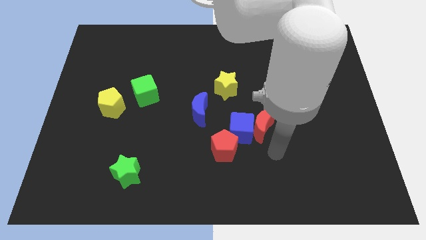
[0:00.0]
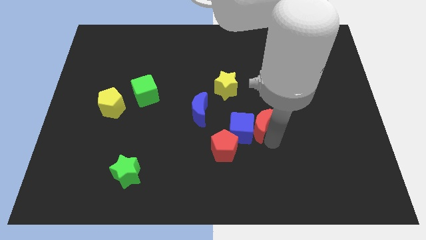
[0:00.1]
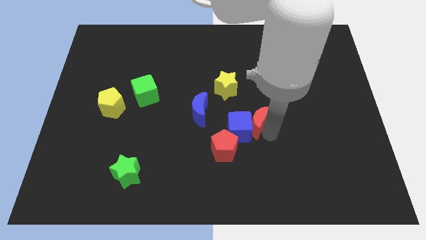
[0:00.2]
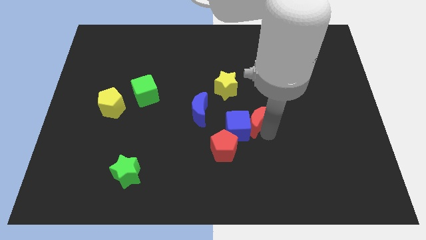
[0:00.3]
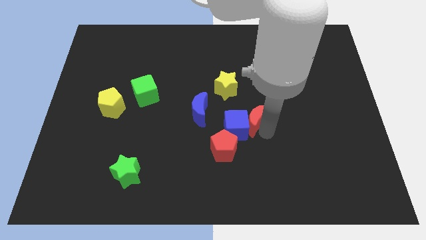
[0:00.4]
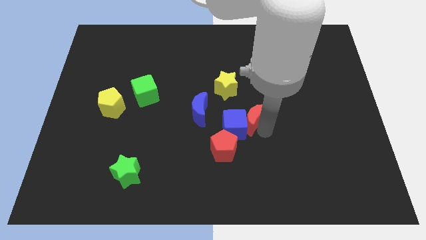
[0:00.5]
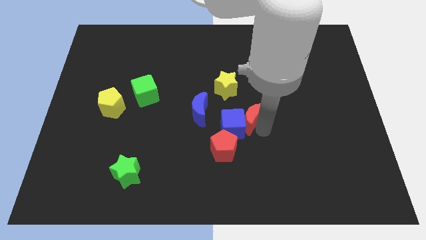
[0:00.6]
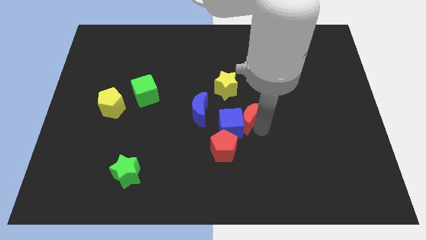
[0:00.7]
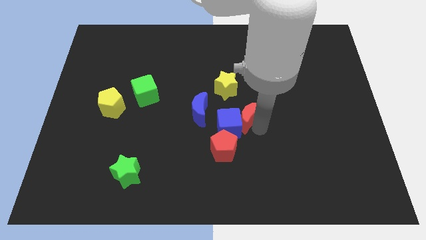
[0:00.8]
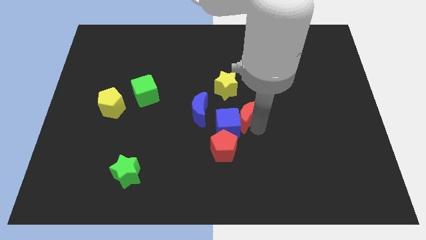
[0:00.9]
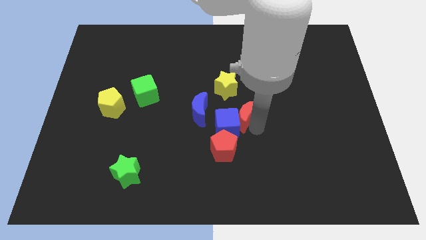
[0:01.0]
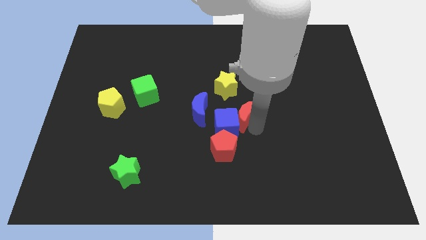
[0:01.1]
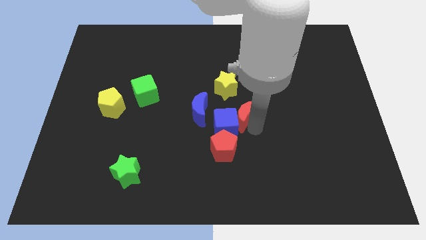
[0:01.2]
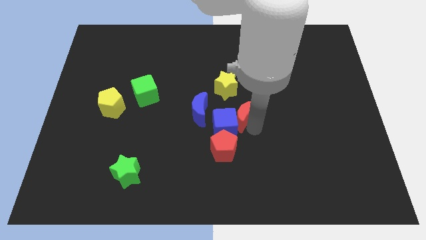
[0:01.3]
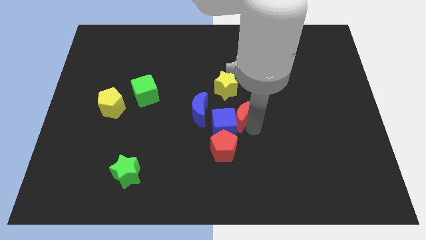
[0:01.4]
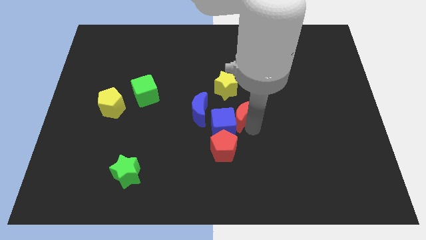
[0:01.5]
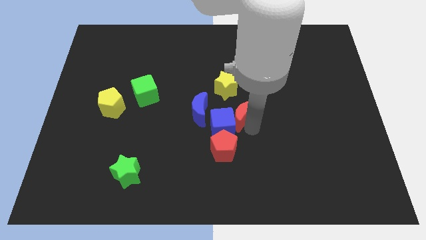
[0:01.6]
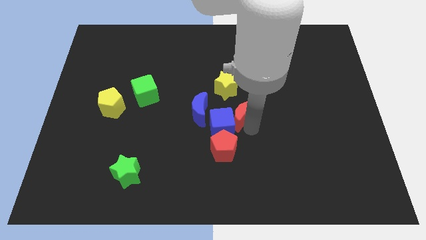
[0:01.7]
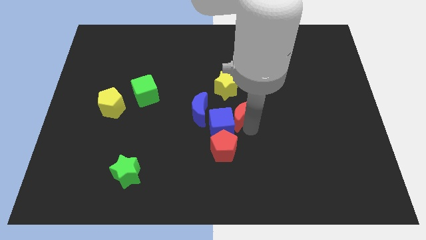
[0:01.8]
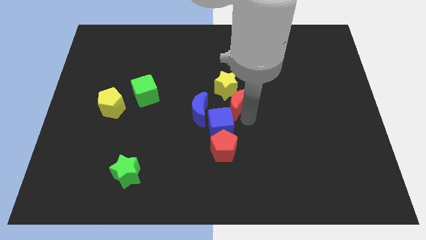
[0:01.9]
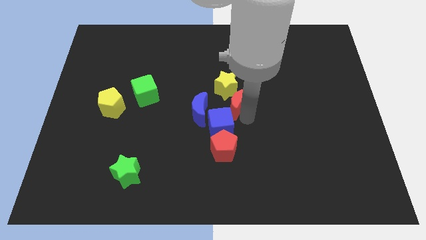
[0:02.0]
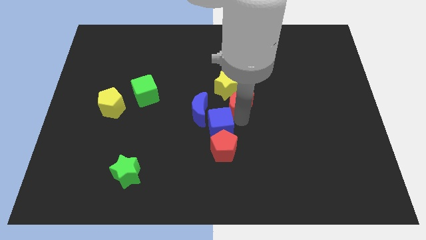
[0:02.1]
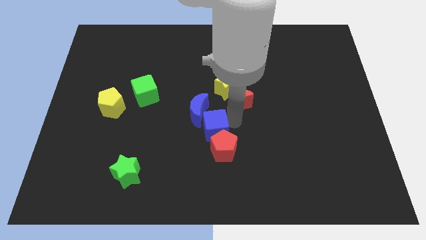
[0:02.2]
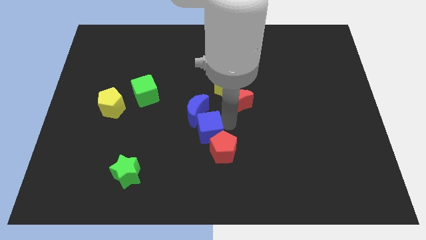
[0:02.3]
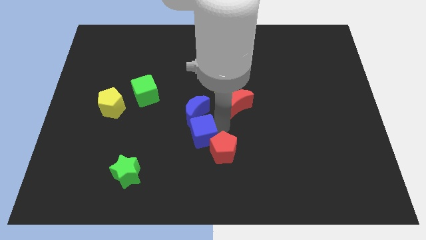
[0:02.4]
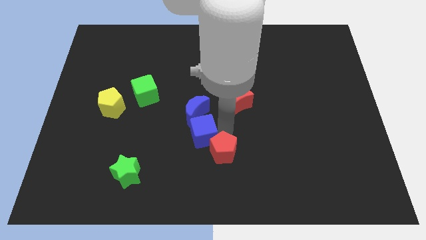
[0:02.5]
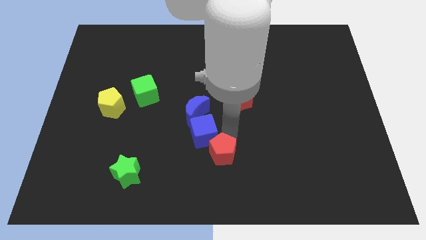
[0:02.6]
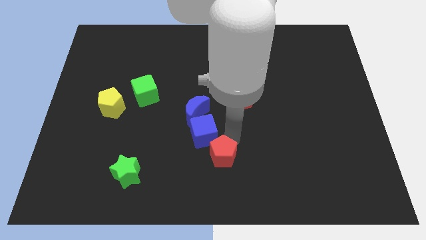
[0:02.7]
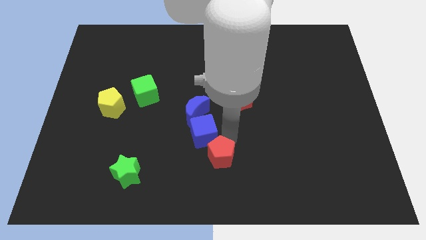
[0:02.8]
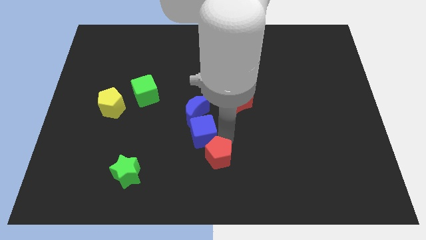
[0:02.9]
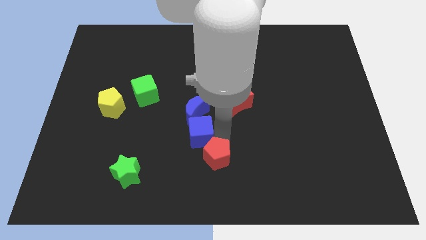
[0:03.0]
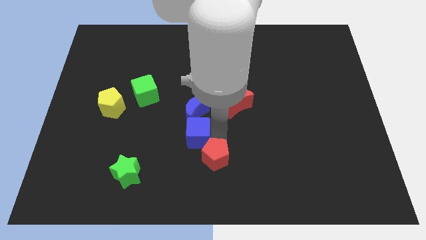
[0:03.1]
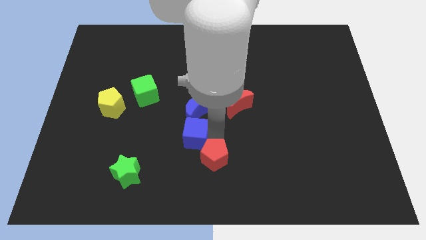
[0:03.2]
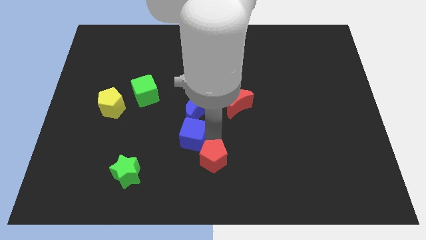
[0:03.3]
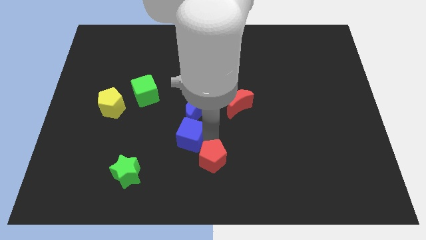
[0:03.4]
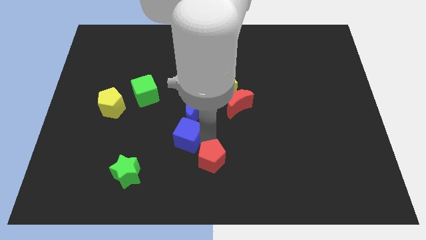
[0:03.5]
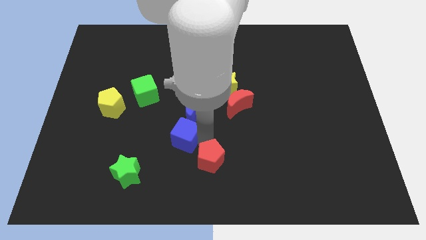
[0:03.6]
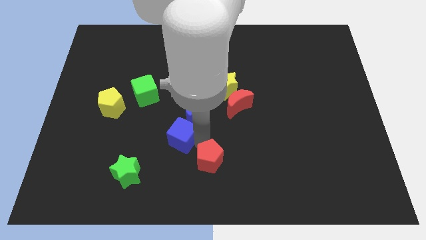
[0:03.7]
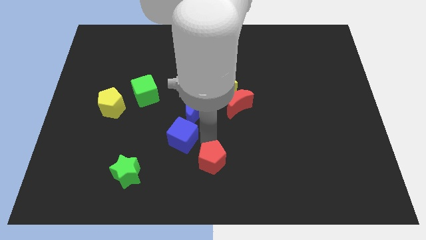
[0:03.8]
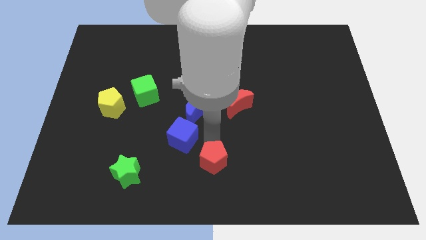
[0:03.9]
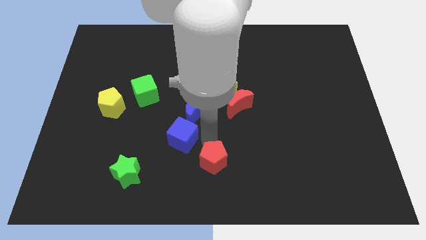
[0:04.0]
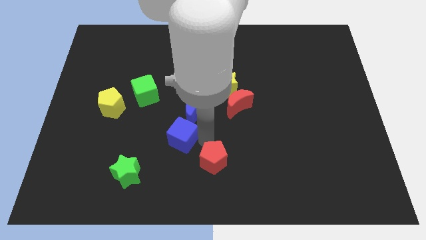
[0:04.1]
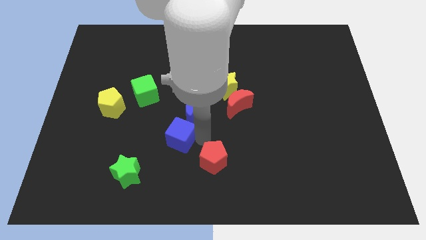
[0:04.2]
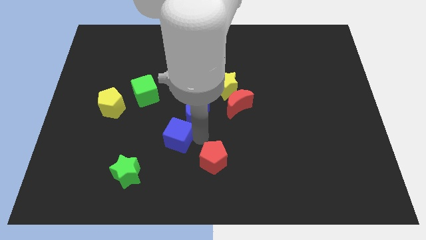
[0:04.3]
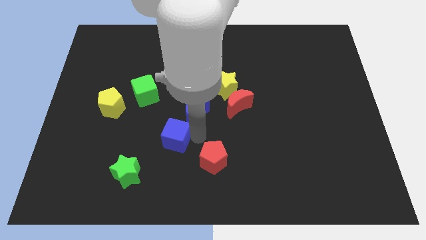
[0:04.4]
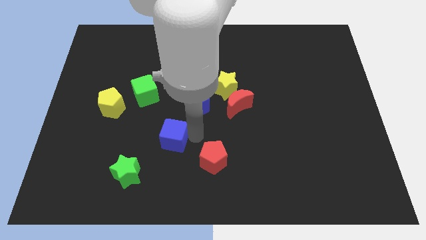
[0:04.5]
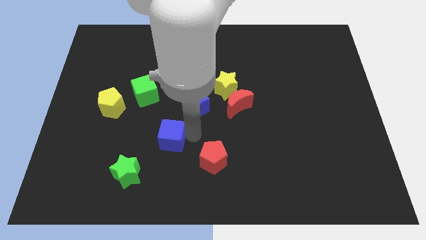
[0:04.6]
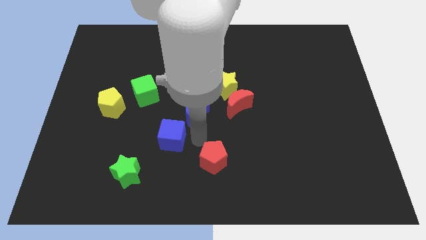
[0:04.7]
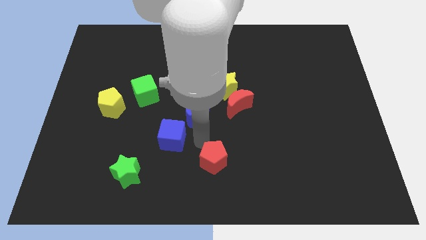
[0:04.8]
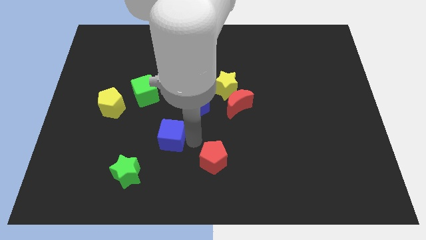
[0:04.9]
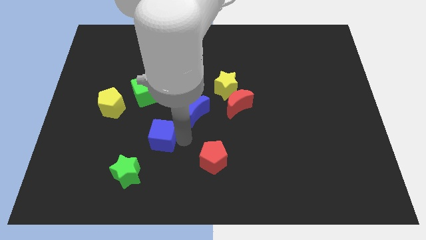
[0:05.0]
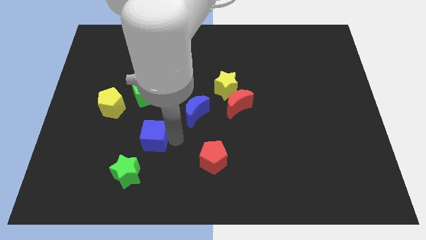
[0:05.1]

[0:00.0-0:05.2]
put the blue cube to the top side of the green star

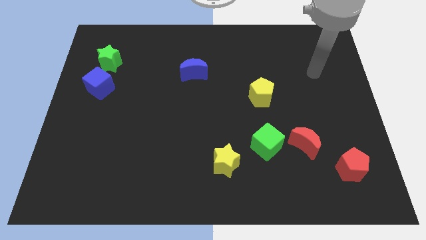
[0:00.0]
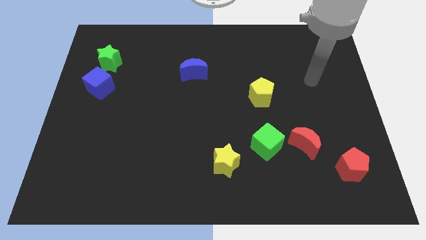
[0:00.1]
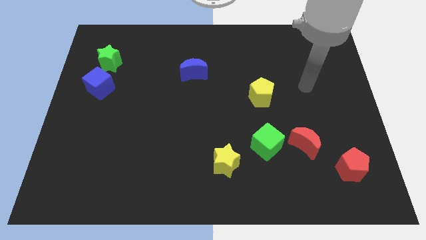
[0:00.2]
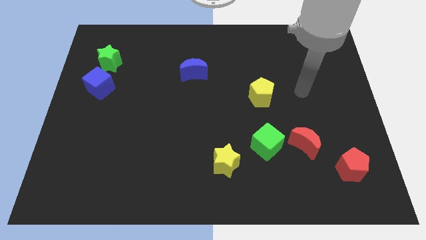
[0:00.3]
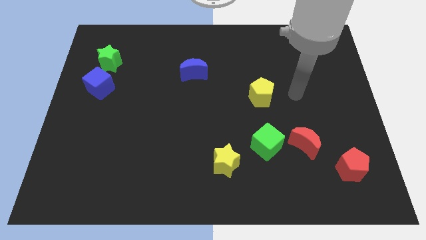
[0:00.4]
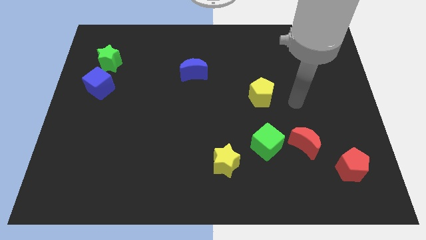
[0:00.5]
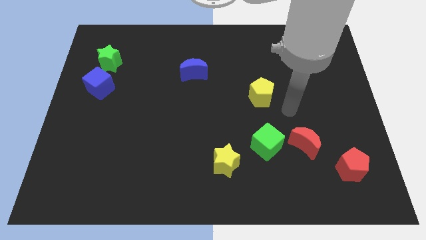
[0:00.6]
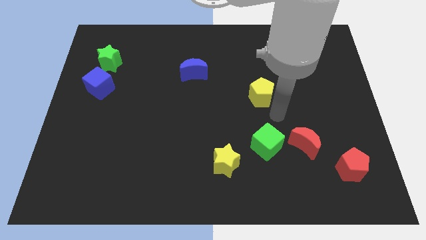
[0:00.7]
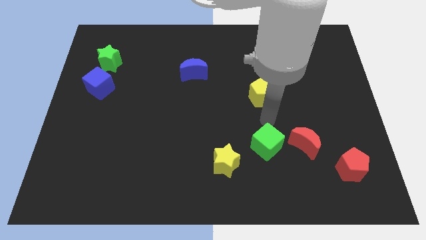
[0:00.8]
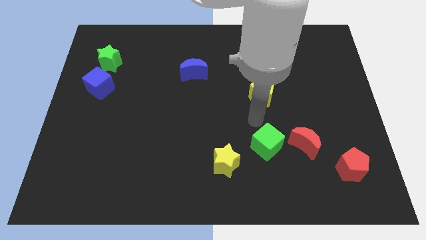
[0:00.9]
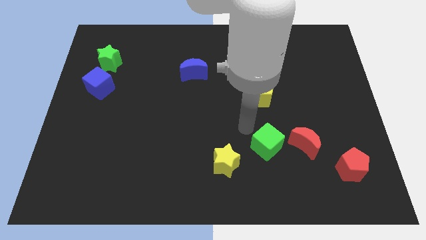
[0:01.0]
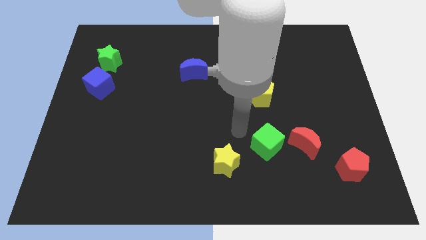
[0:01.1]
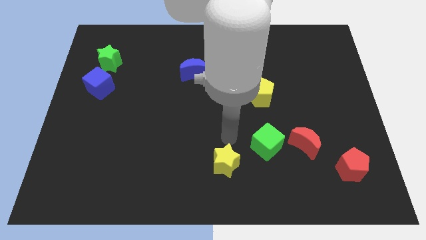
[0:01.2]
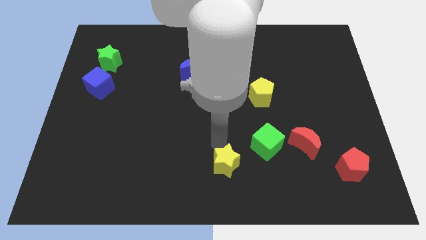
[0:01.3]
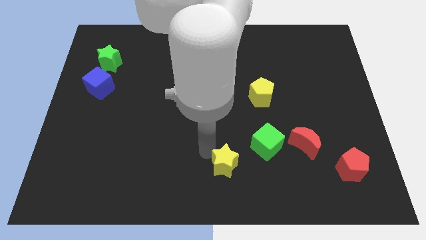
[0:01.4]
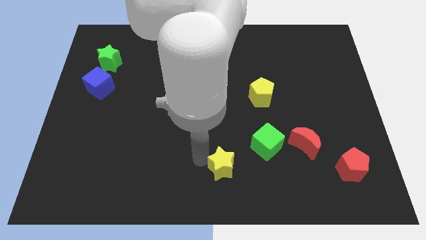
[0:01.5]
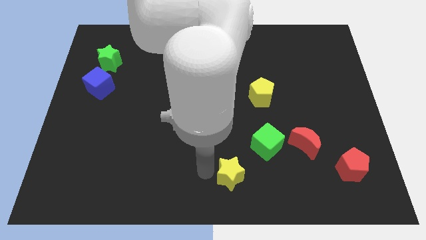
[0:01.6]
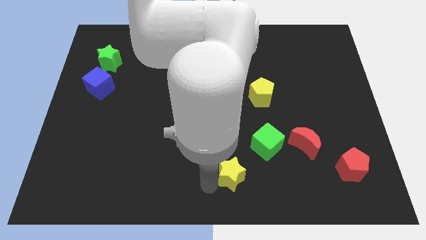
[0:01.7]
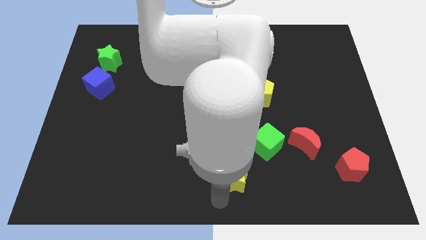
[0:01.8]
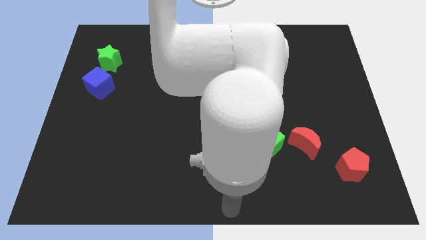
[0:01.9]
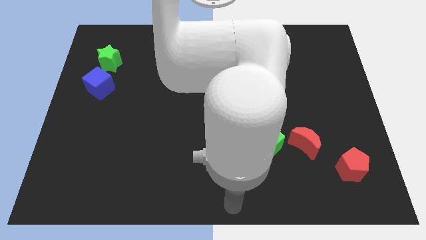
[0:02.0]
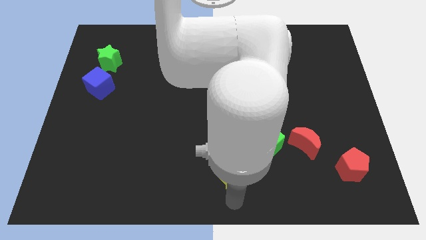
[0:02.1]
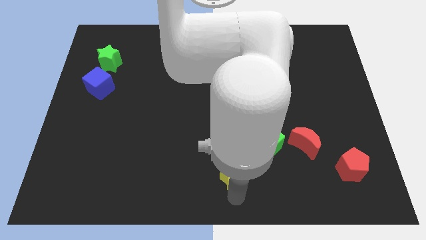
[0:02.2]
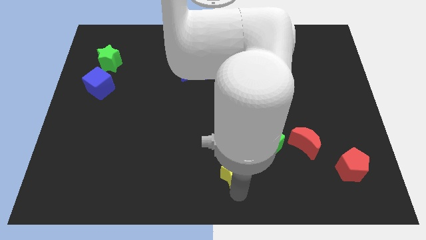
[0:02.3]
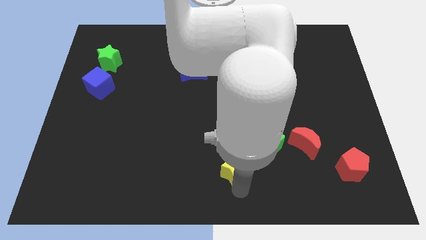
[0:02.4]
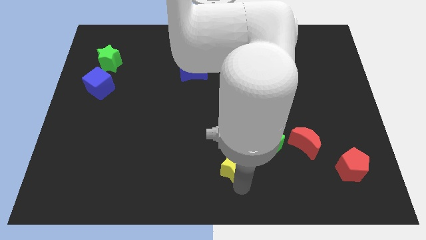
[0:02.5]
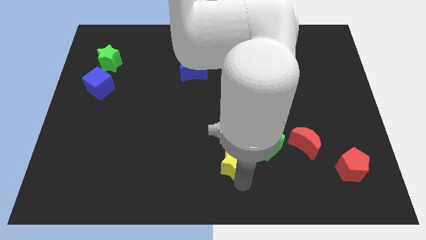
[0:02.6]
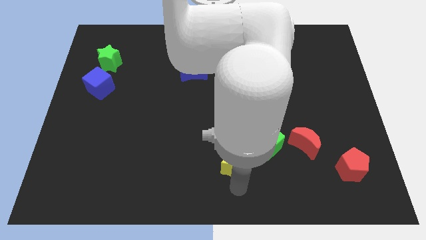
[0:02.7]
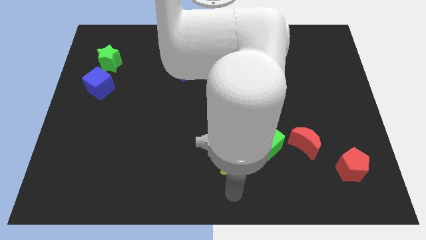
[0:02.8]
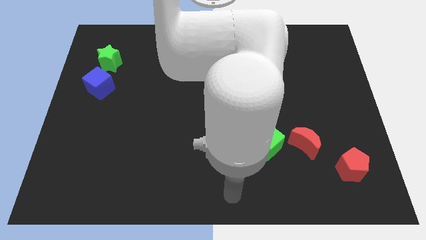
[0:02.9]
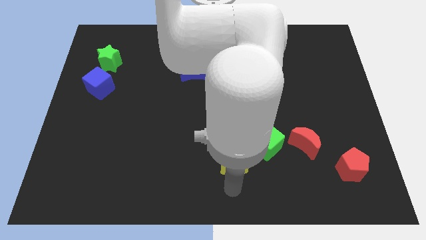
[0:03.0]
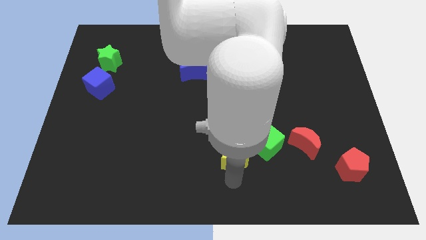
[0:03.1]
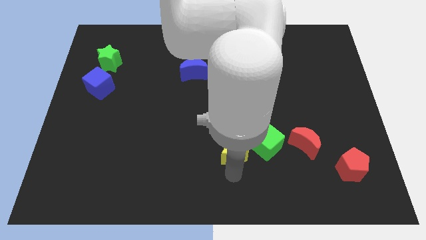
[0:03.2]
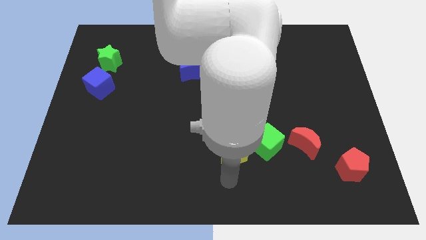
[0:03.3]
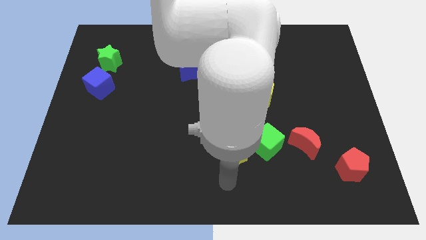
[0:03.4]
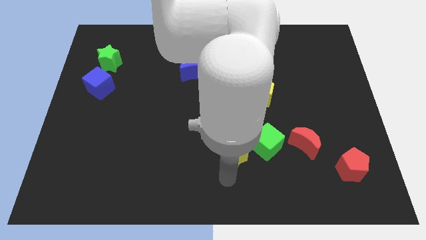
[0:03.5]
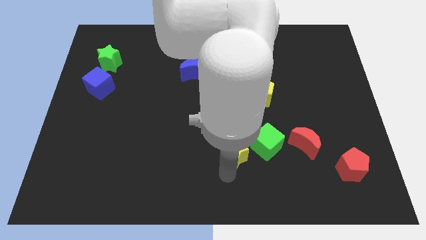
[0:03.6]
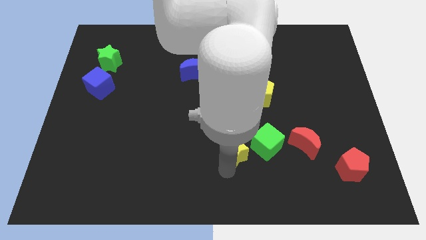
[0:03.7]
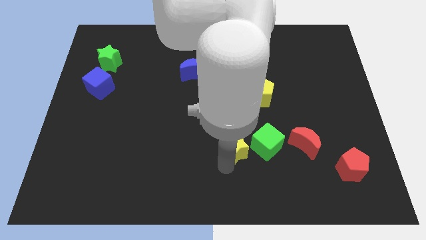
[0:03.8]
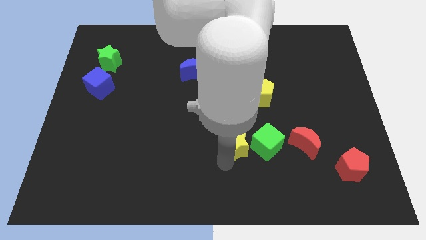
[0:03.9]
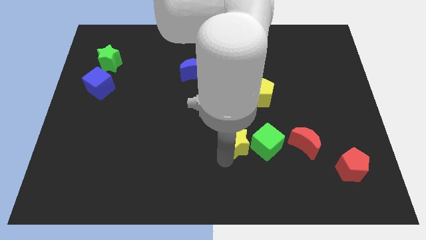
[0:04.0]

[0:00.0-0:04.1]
move the yellow star diagonally up and to the left of the green cube
